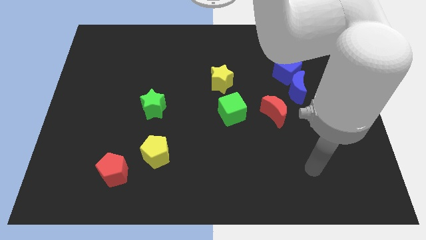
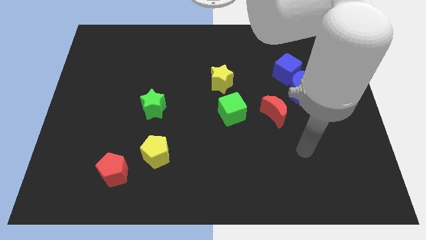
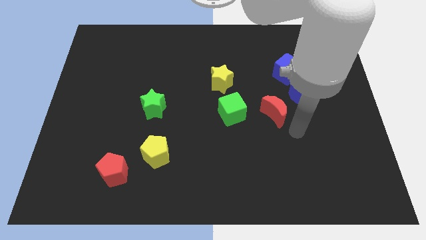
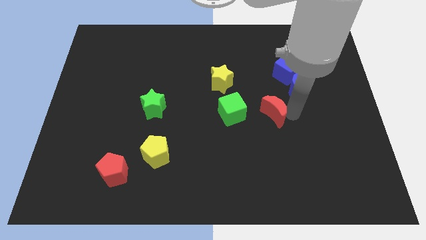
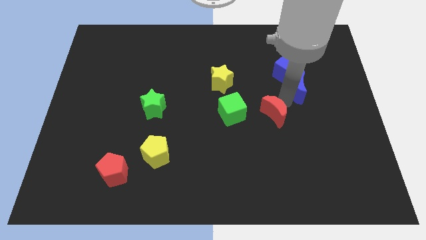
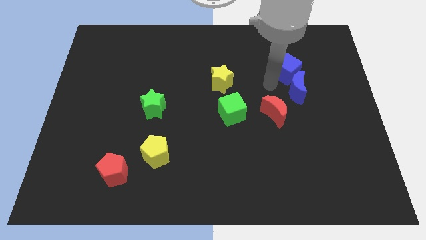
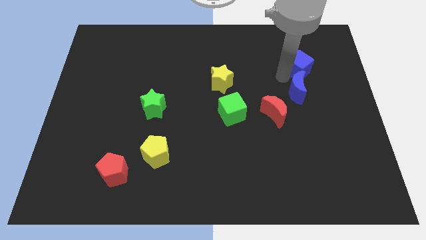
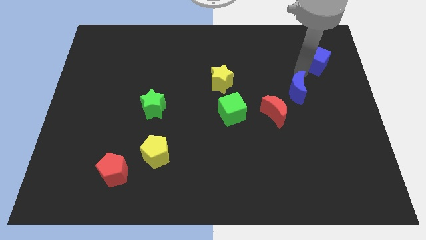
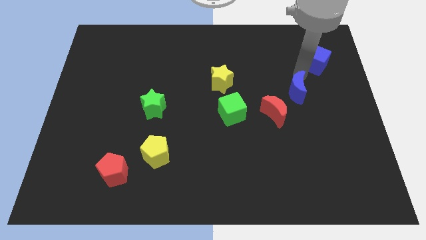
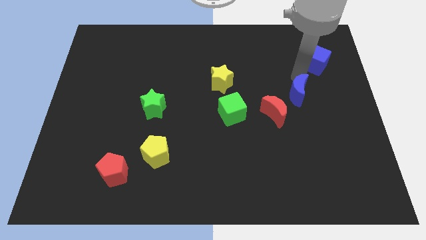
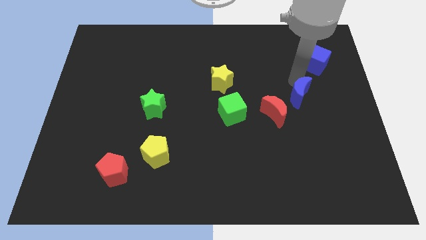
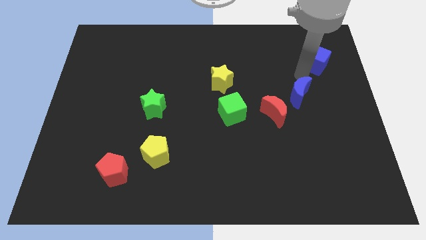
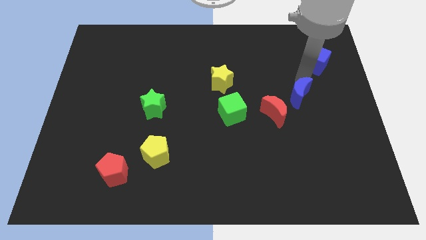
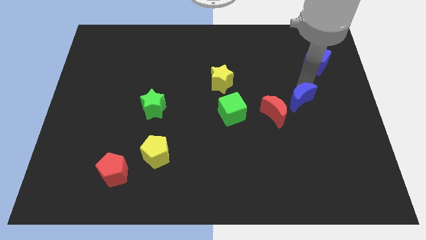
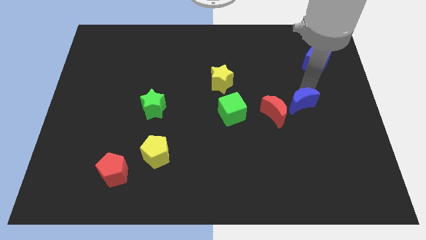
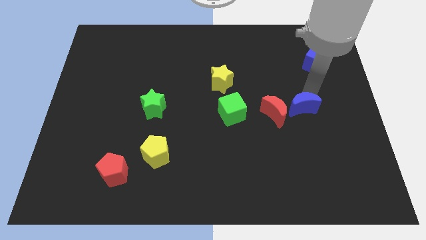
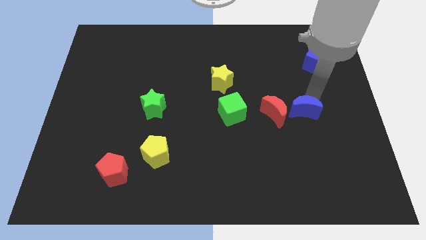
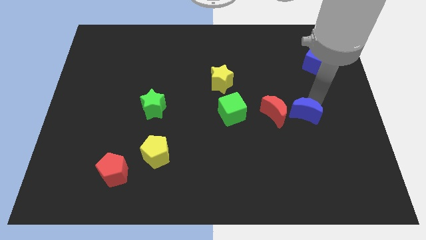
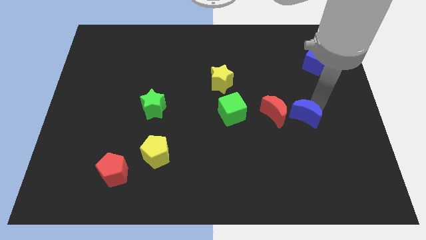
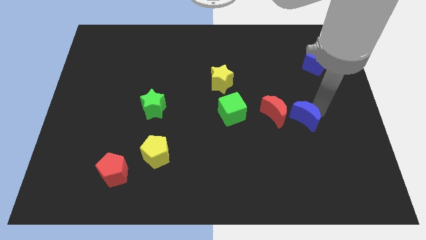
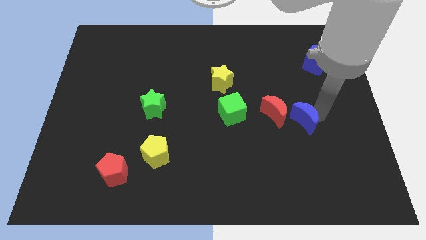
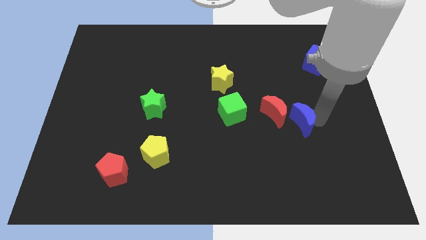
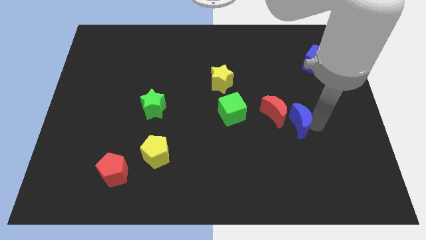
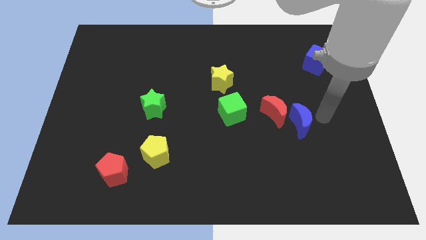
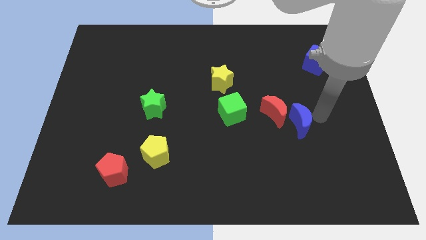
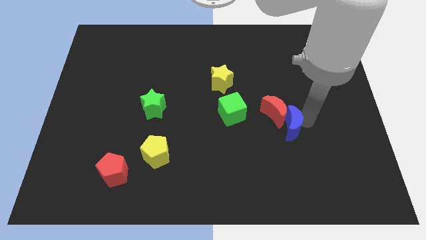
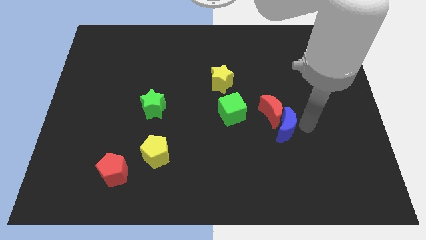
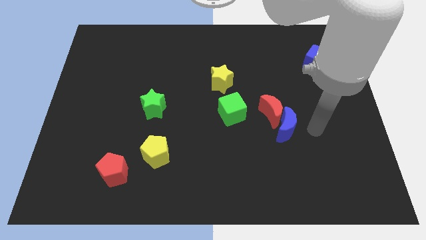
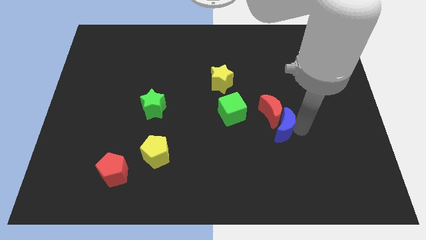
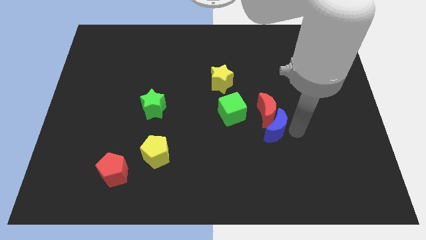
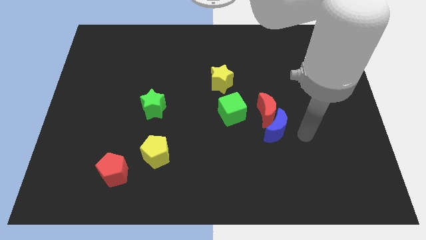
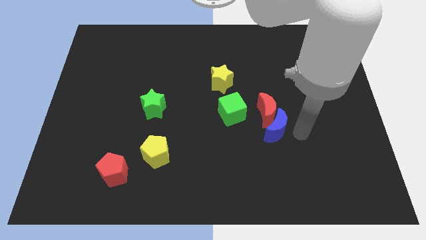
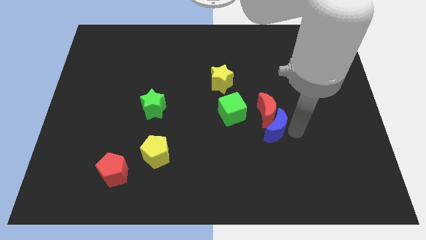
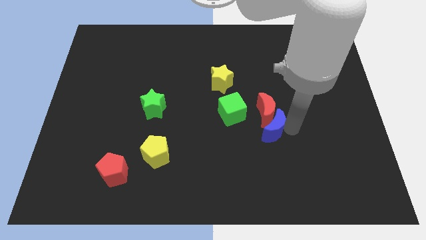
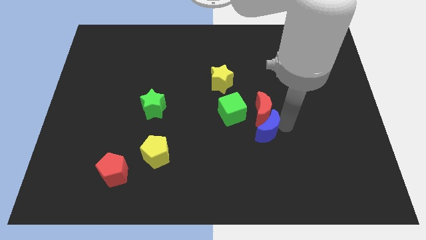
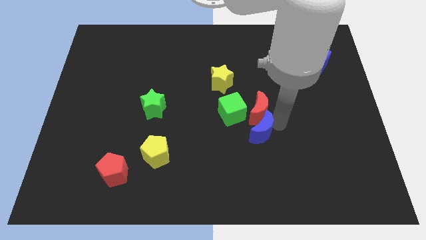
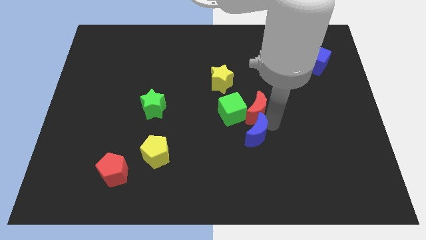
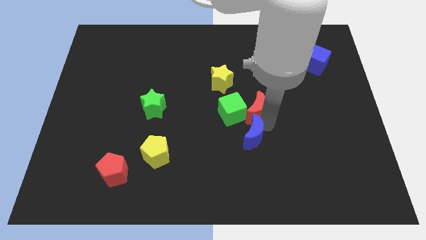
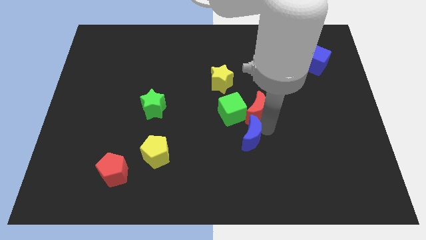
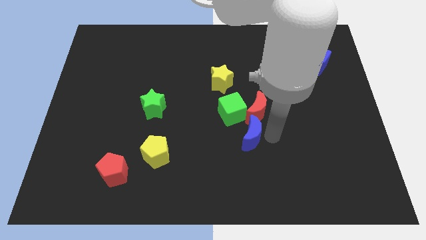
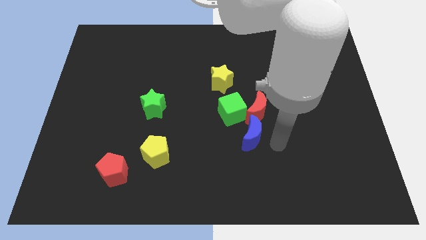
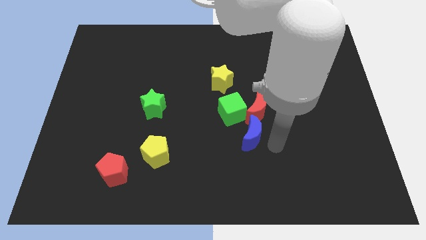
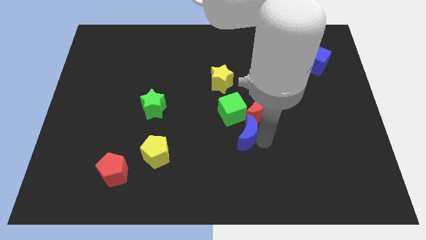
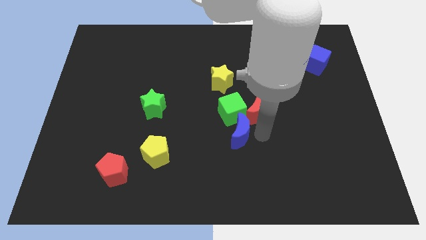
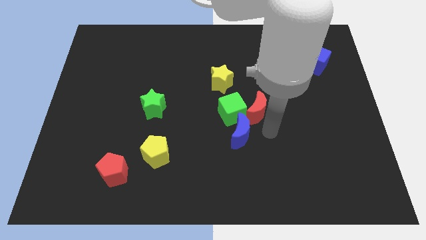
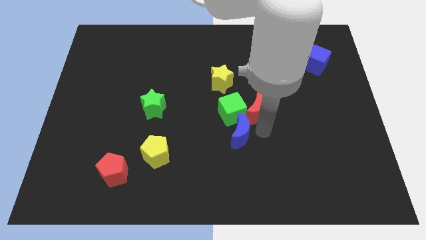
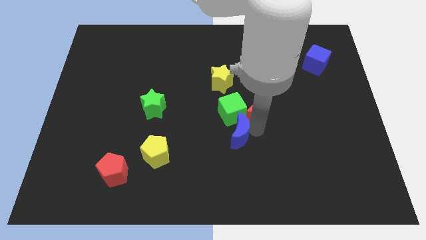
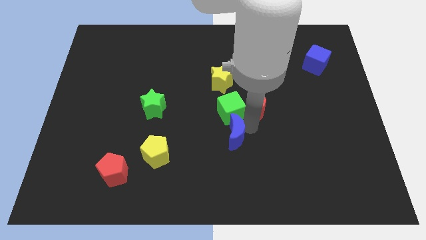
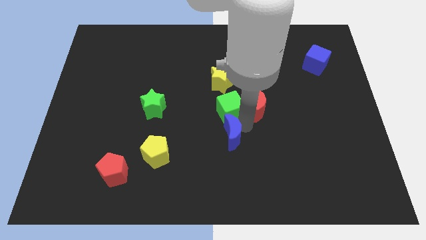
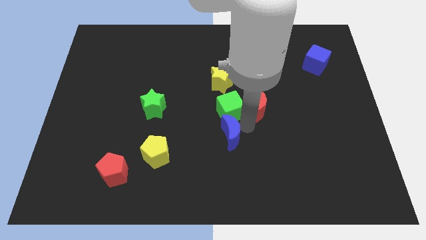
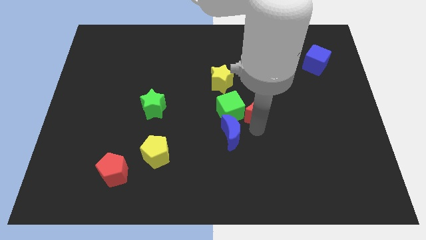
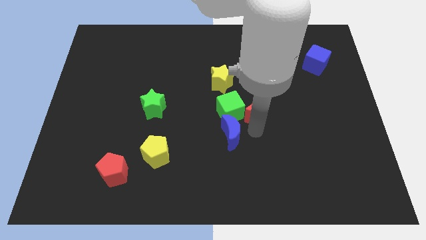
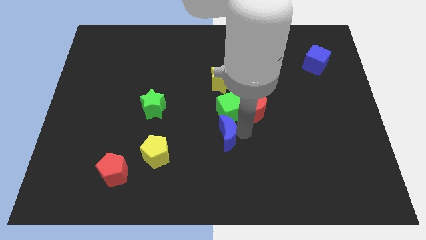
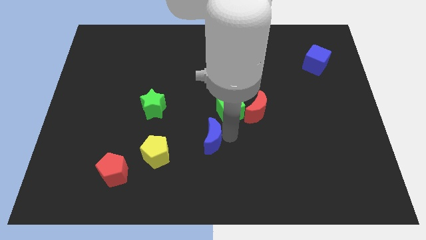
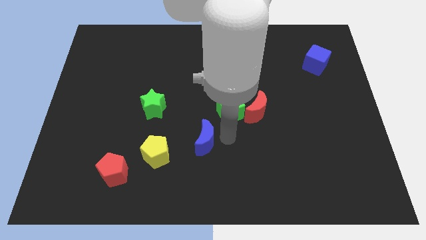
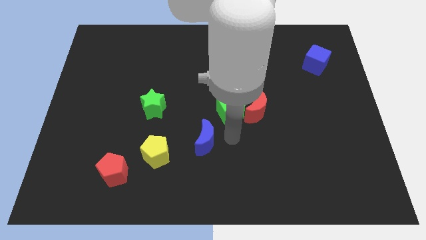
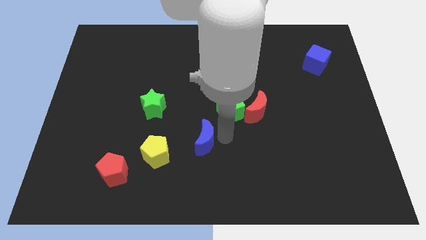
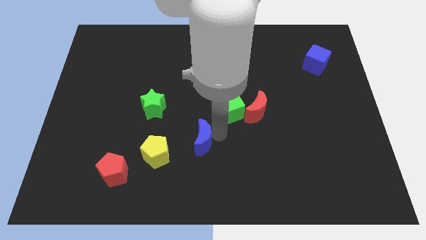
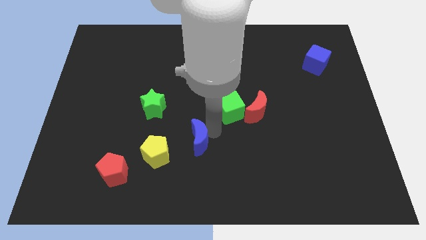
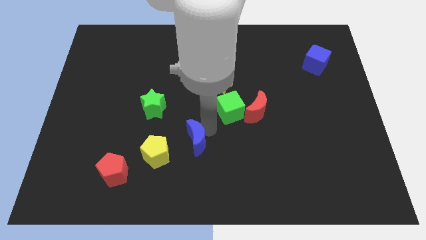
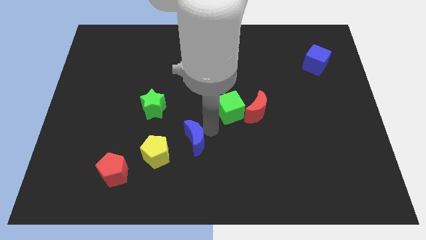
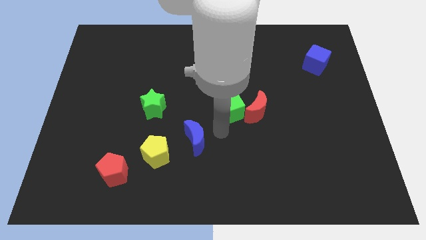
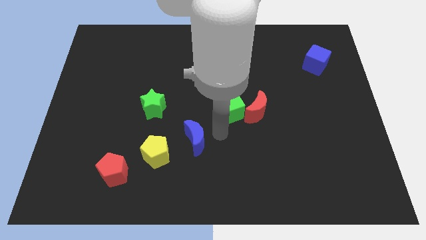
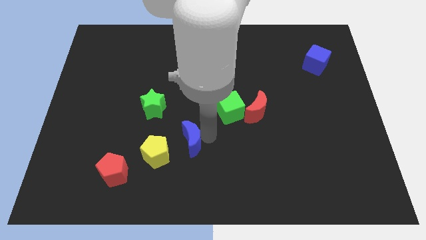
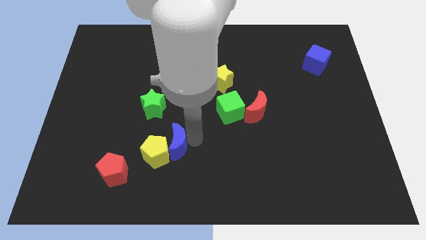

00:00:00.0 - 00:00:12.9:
slide the blue moon to the yellow pentagon

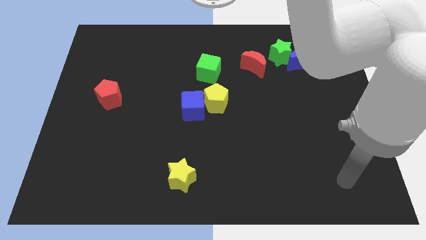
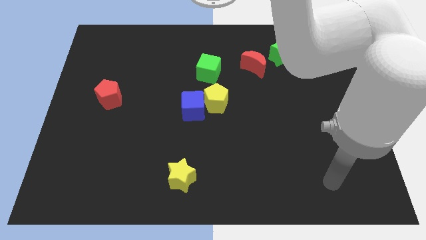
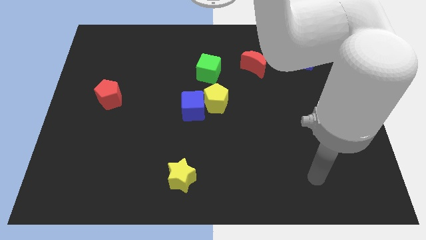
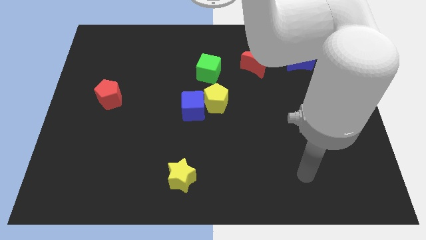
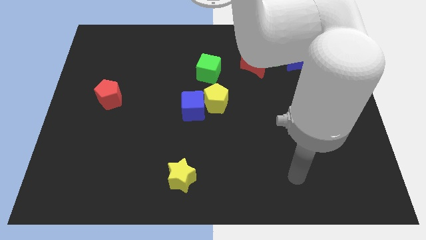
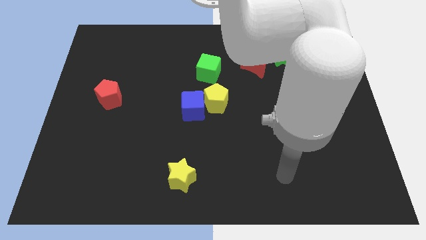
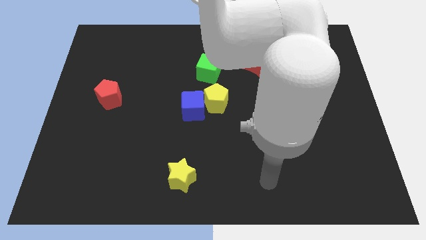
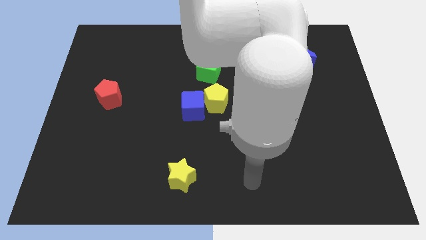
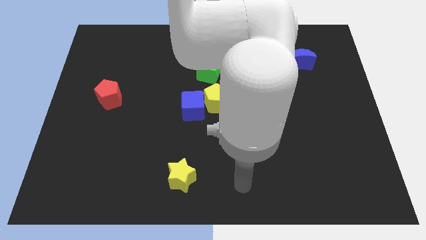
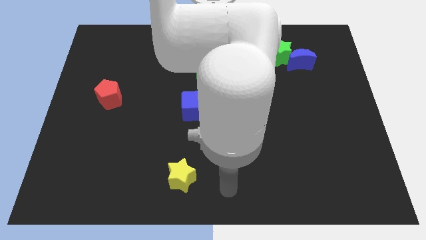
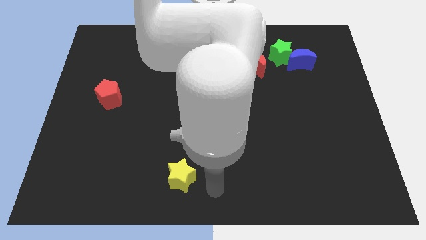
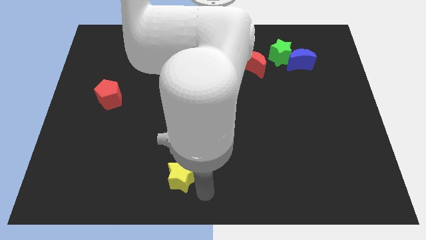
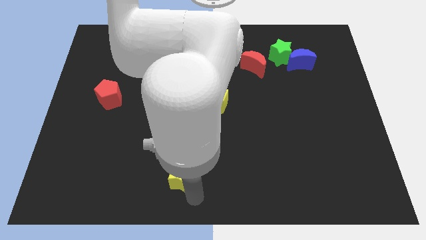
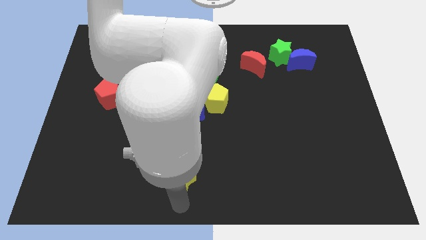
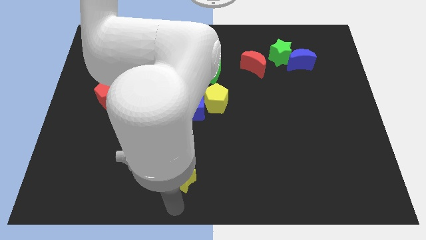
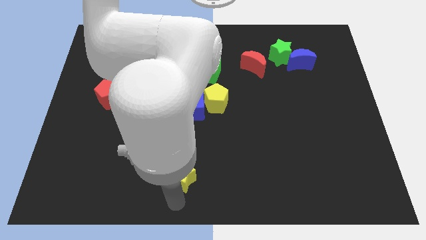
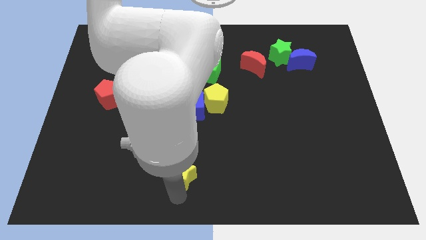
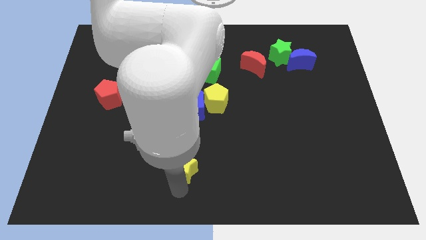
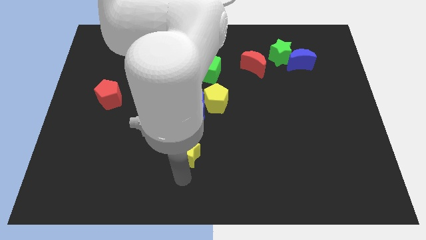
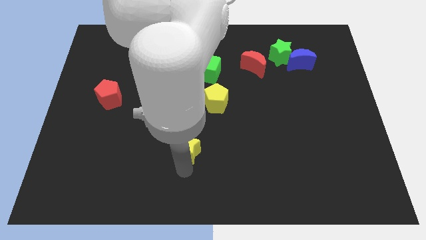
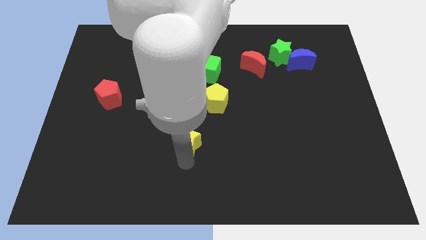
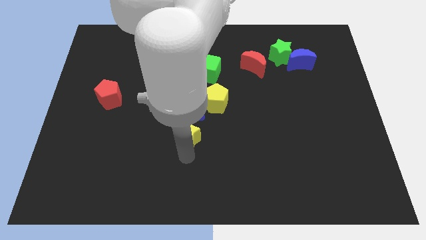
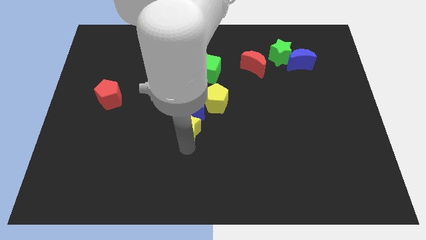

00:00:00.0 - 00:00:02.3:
put the yellow star to the blue cube
